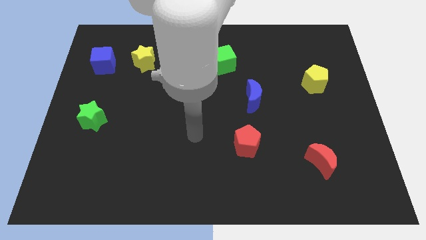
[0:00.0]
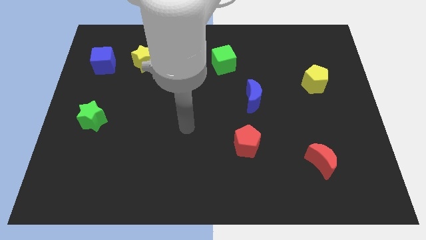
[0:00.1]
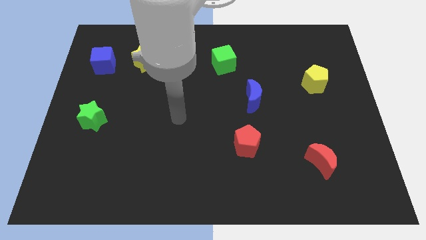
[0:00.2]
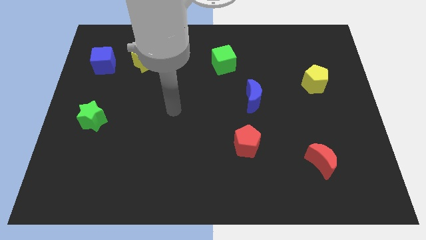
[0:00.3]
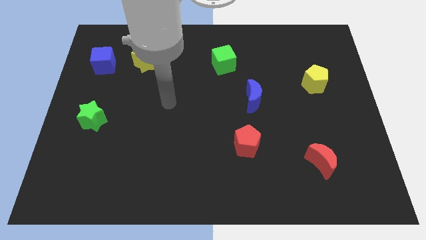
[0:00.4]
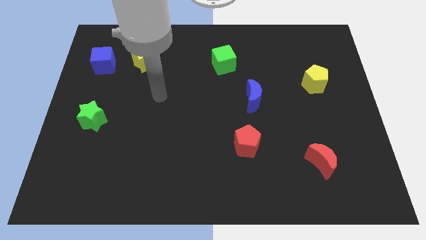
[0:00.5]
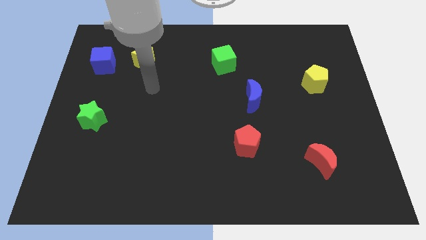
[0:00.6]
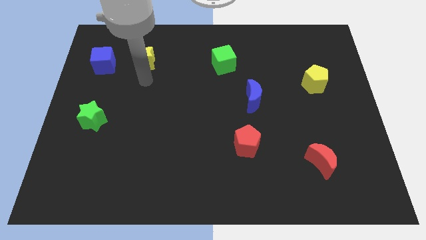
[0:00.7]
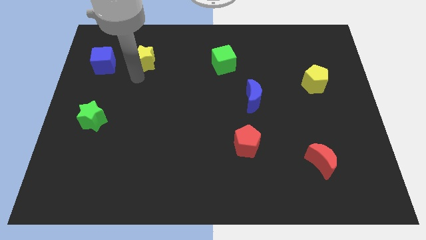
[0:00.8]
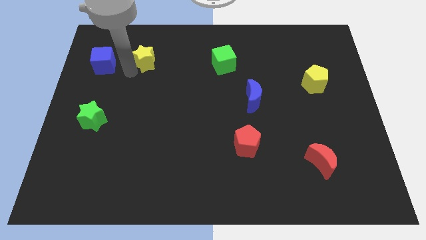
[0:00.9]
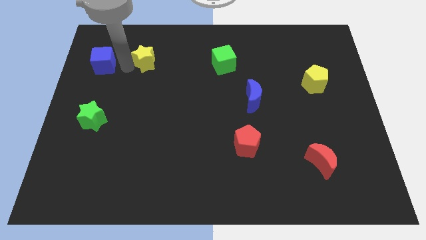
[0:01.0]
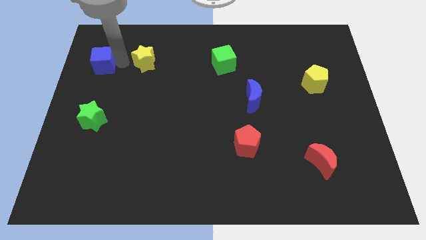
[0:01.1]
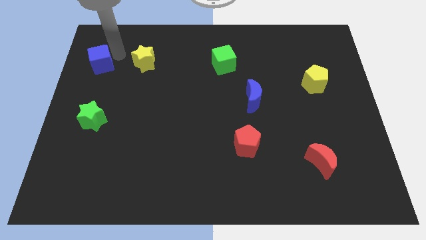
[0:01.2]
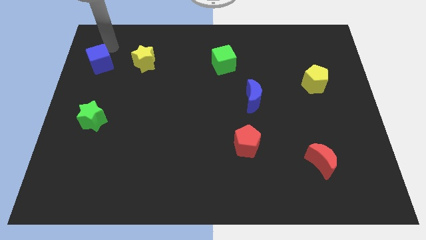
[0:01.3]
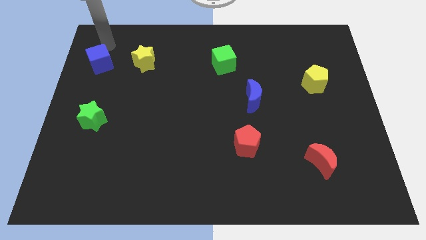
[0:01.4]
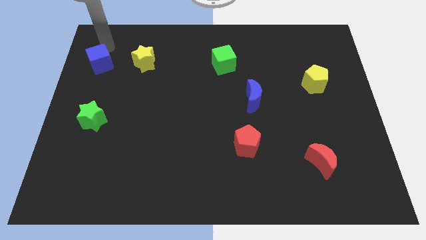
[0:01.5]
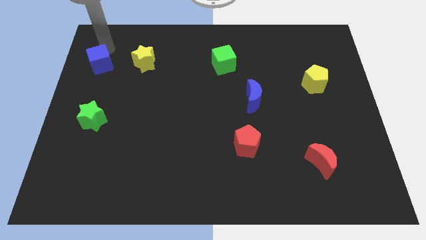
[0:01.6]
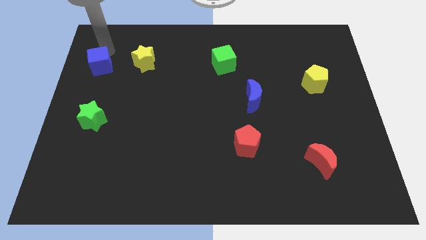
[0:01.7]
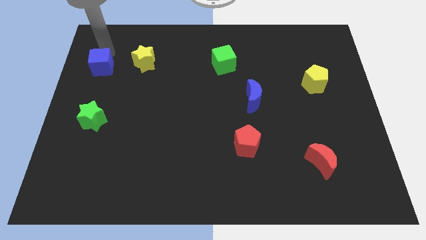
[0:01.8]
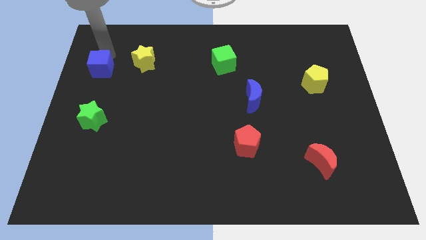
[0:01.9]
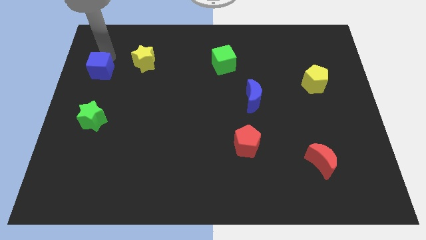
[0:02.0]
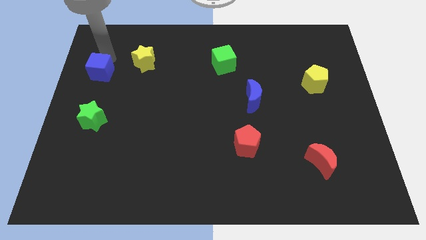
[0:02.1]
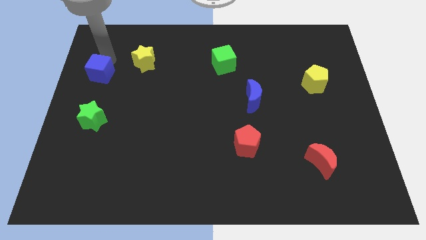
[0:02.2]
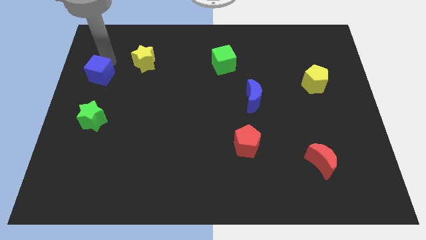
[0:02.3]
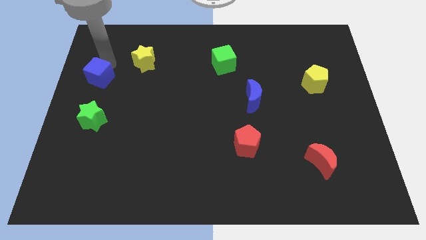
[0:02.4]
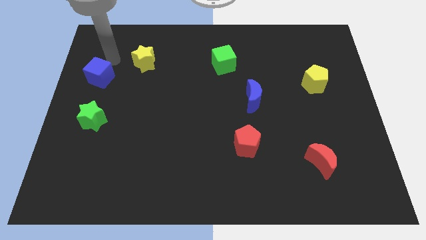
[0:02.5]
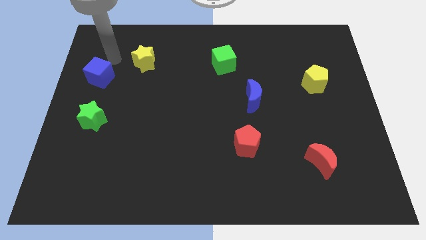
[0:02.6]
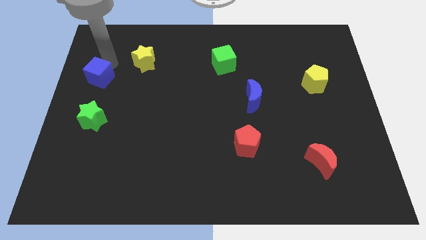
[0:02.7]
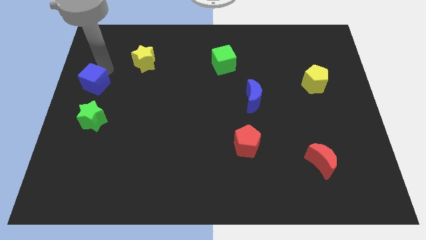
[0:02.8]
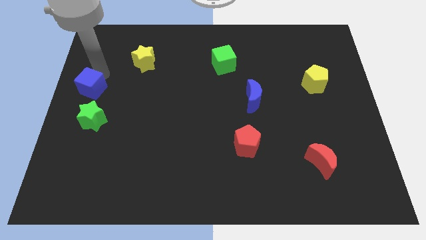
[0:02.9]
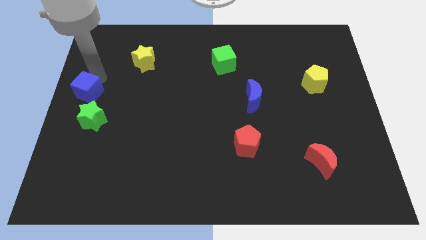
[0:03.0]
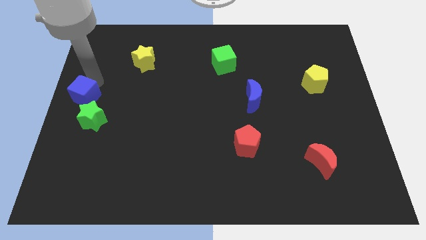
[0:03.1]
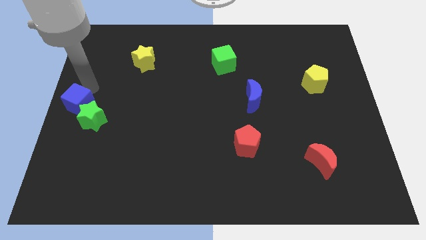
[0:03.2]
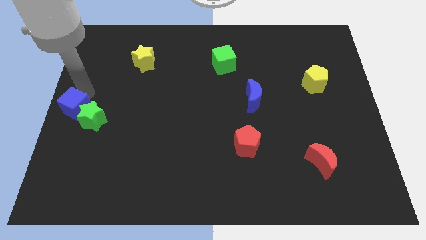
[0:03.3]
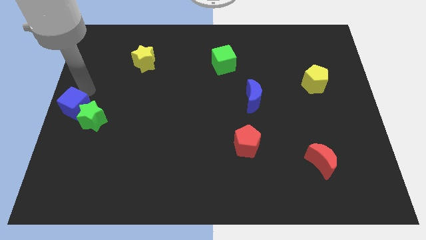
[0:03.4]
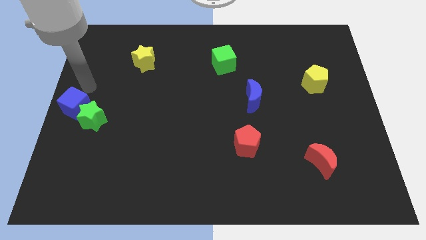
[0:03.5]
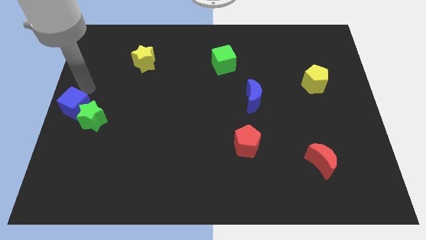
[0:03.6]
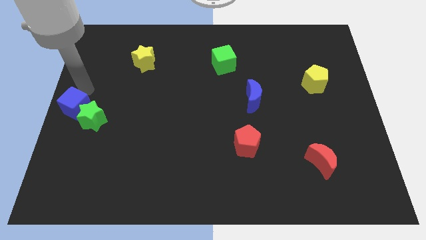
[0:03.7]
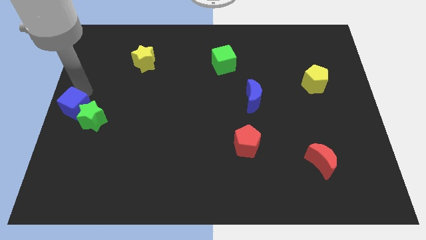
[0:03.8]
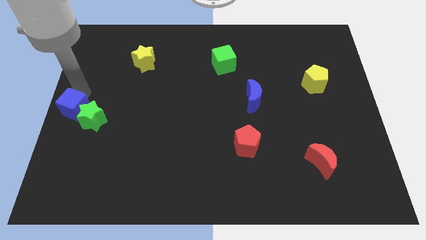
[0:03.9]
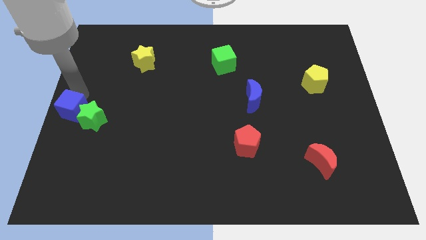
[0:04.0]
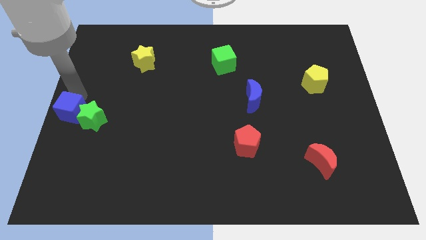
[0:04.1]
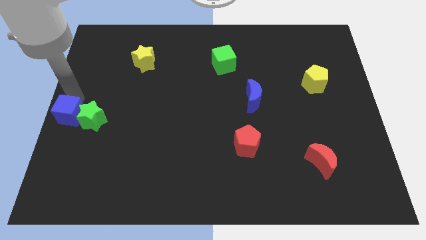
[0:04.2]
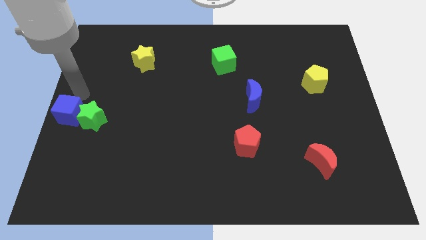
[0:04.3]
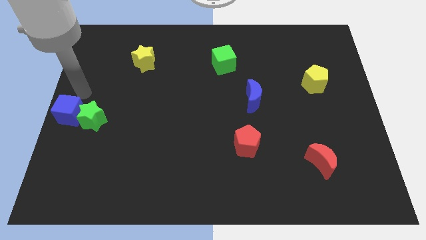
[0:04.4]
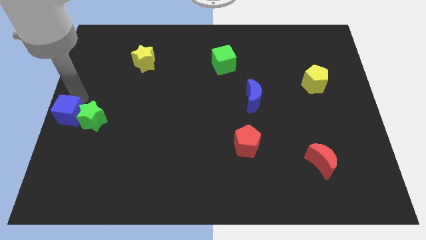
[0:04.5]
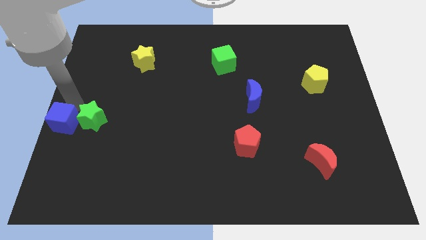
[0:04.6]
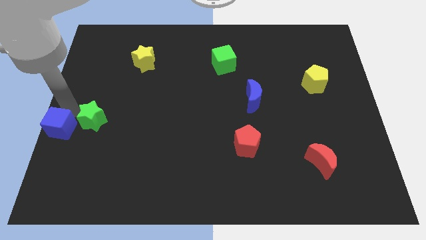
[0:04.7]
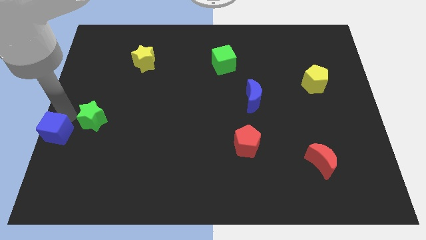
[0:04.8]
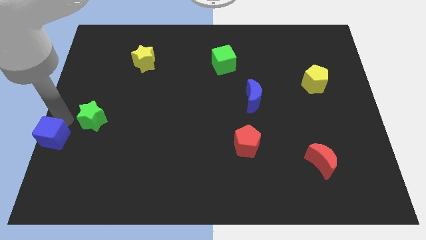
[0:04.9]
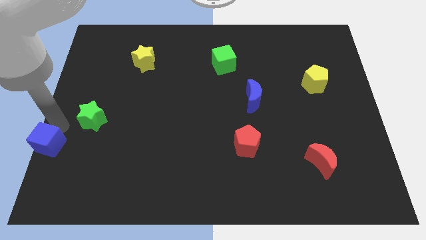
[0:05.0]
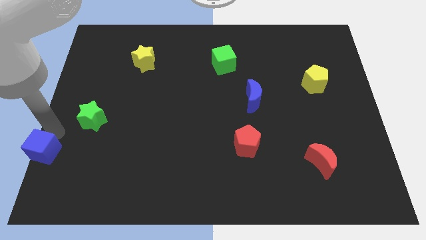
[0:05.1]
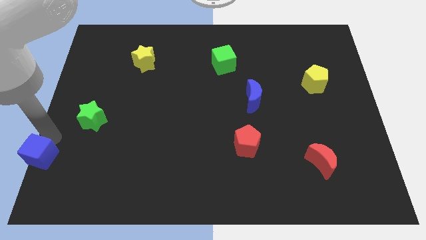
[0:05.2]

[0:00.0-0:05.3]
slide the blue cube to the bottom left of the board

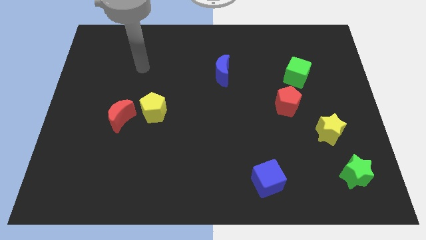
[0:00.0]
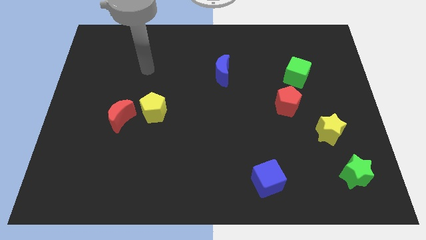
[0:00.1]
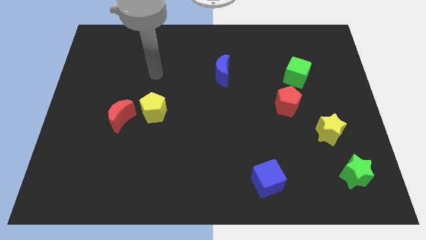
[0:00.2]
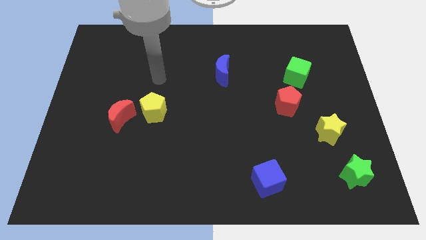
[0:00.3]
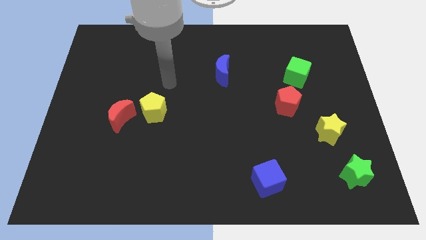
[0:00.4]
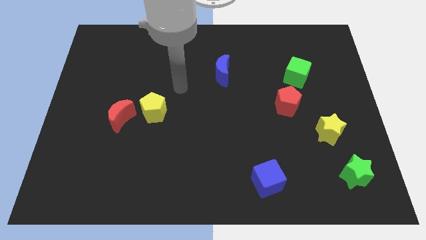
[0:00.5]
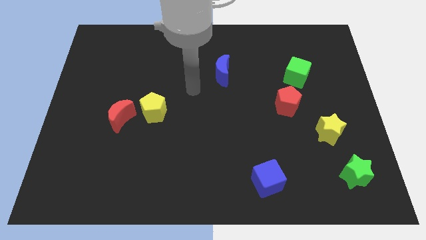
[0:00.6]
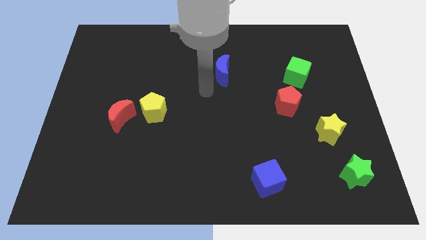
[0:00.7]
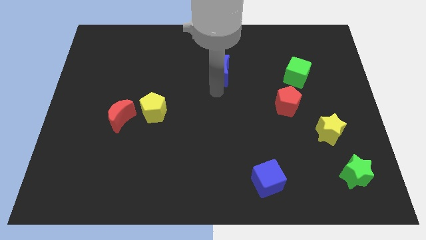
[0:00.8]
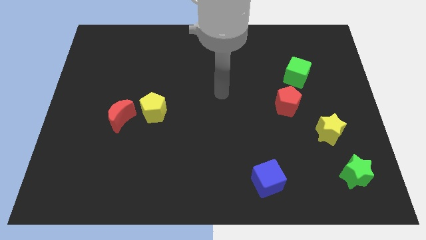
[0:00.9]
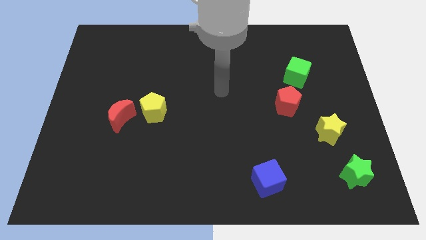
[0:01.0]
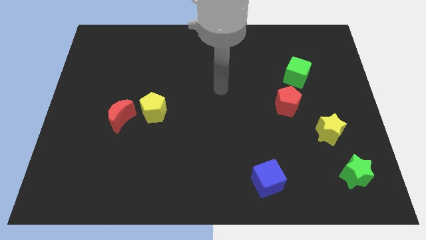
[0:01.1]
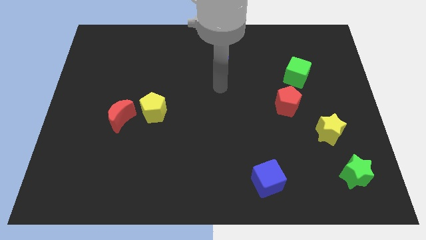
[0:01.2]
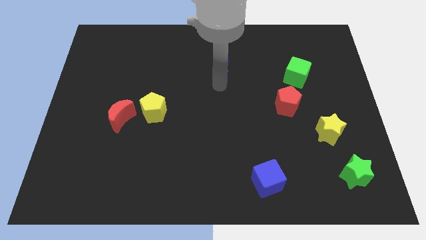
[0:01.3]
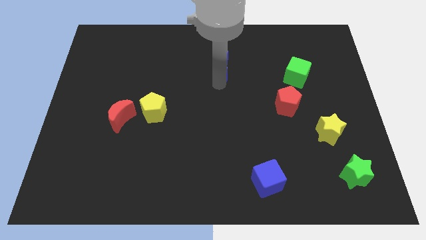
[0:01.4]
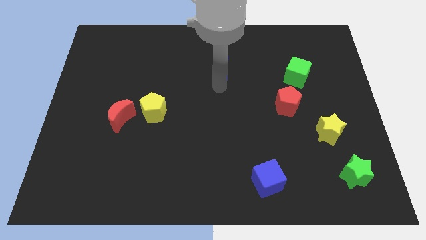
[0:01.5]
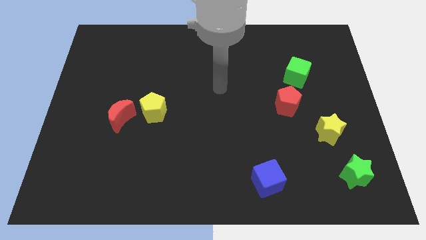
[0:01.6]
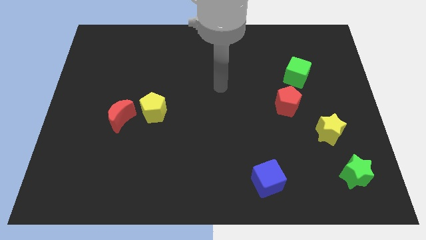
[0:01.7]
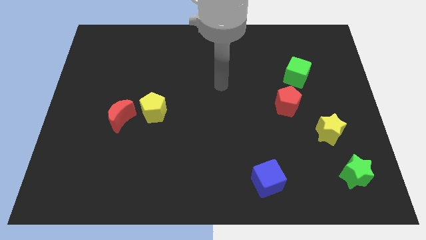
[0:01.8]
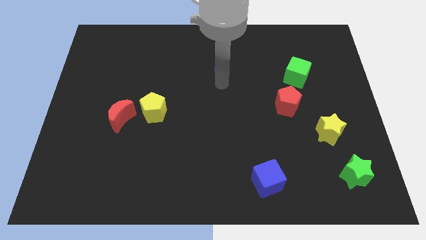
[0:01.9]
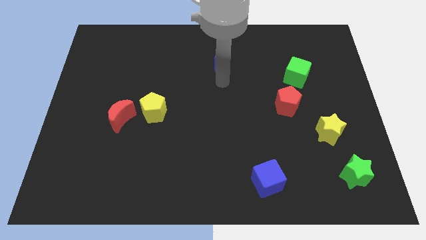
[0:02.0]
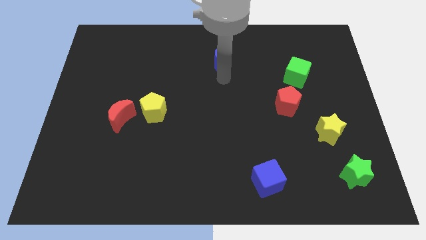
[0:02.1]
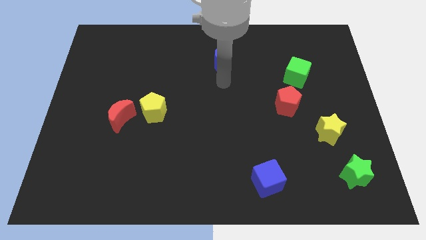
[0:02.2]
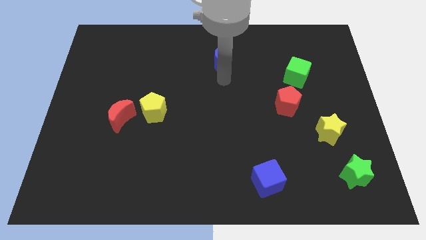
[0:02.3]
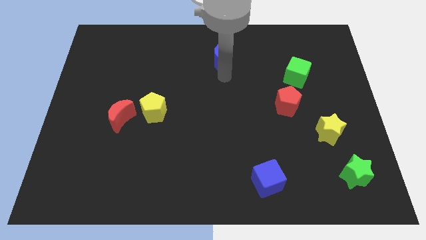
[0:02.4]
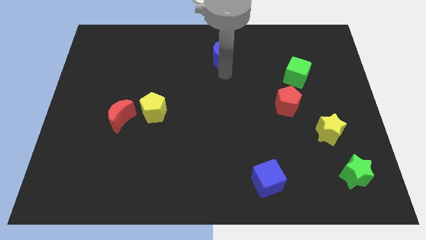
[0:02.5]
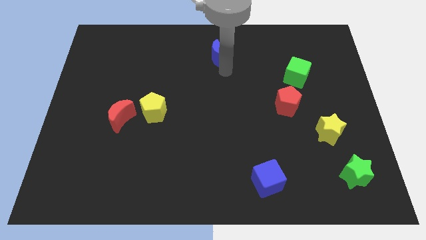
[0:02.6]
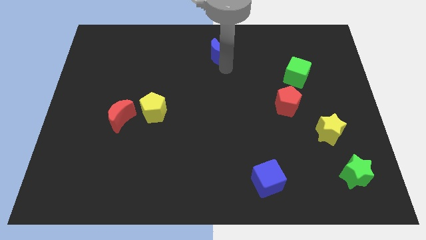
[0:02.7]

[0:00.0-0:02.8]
push the blue moon to the top
